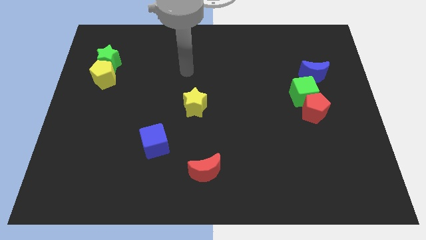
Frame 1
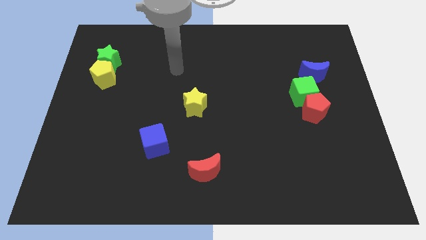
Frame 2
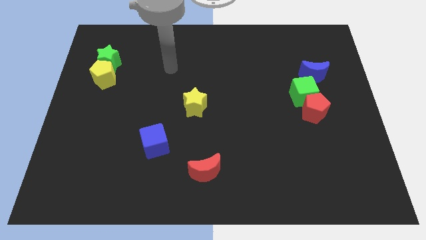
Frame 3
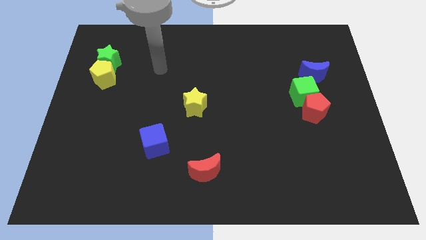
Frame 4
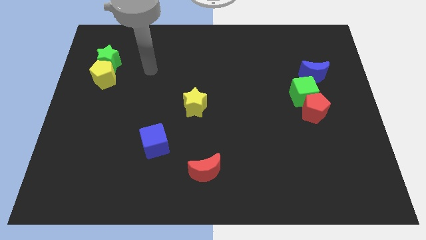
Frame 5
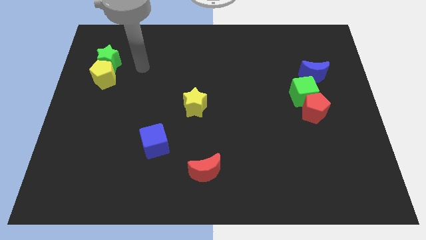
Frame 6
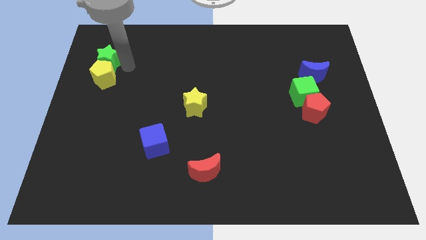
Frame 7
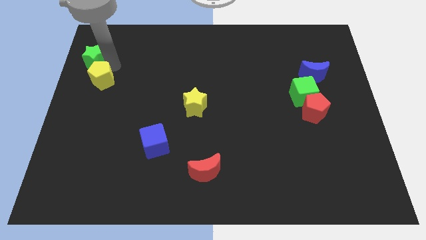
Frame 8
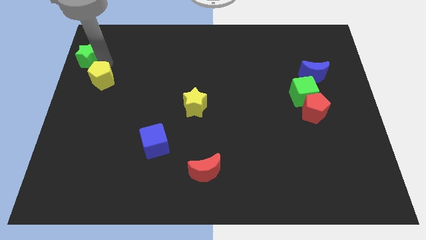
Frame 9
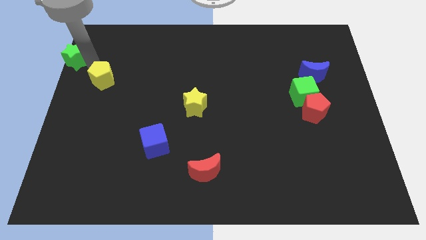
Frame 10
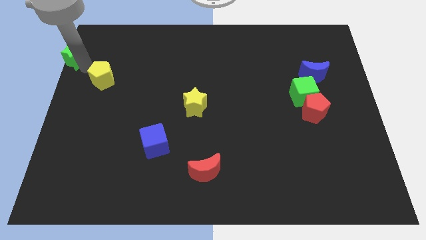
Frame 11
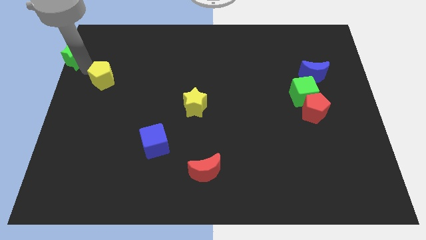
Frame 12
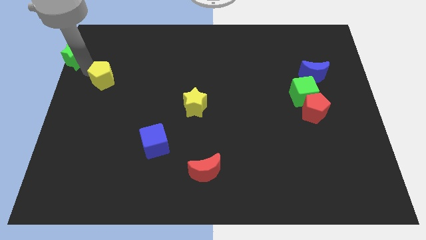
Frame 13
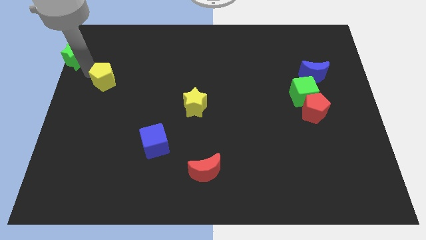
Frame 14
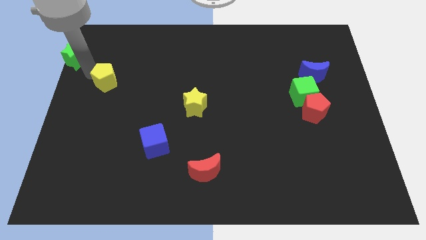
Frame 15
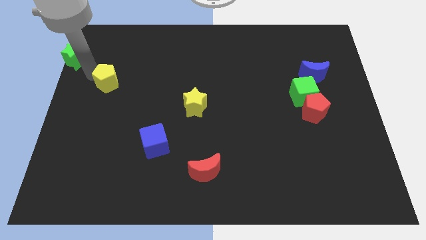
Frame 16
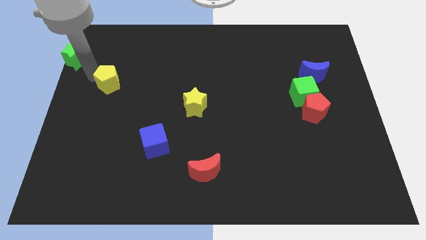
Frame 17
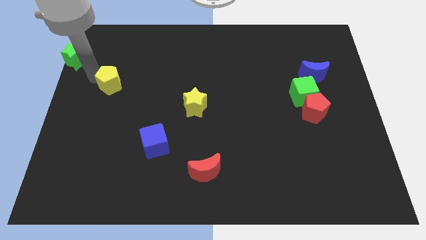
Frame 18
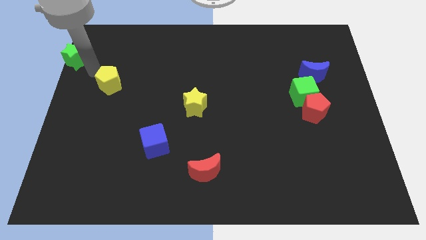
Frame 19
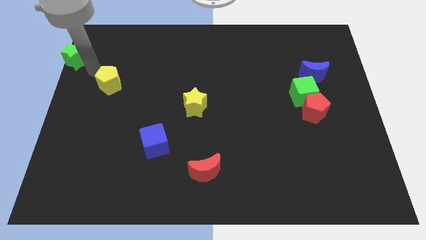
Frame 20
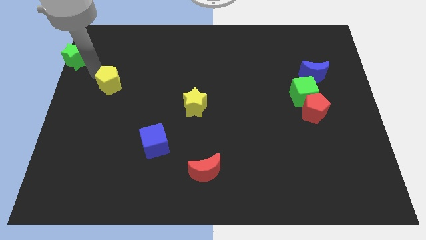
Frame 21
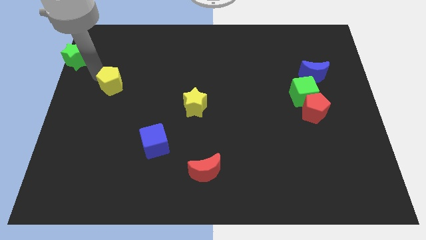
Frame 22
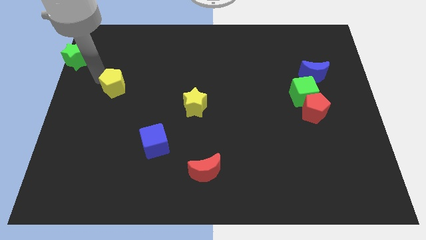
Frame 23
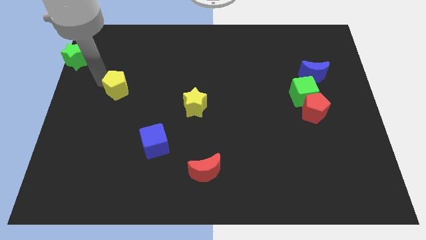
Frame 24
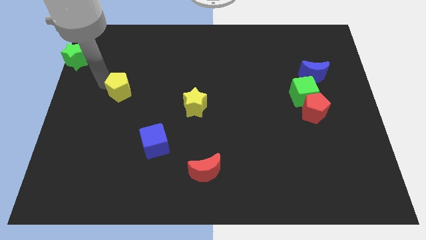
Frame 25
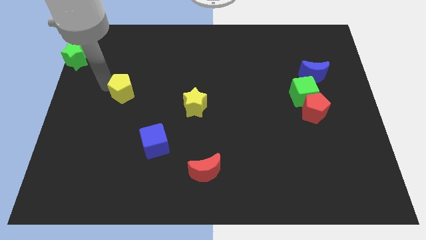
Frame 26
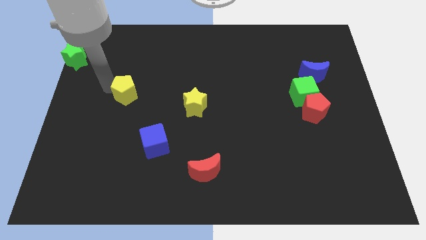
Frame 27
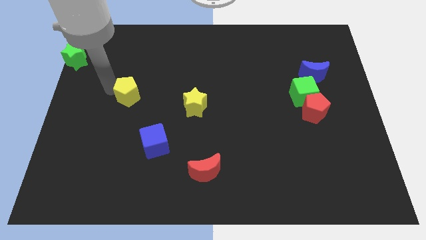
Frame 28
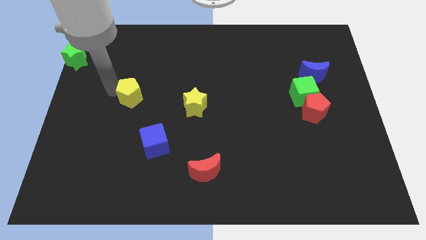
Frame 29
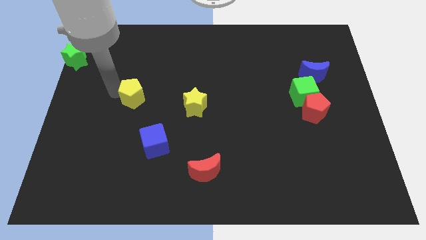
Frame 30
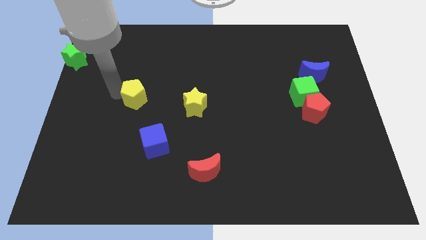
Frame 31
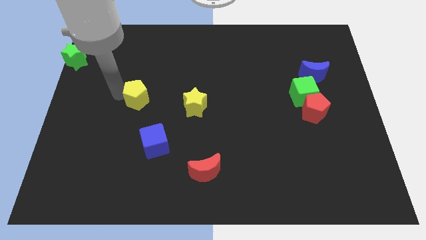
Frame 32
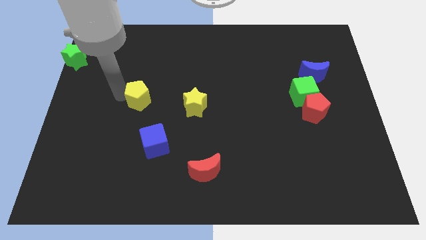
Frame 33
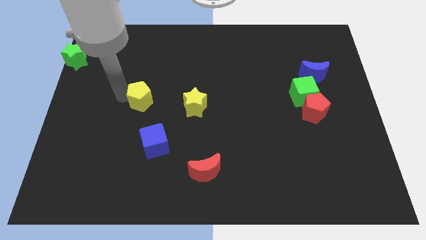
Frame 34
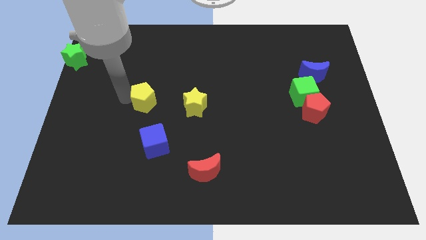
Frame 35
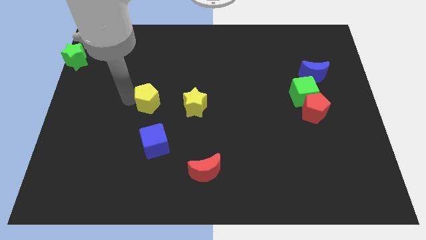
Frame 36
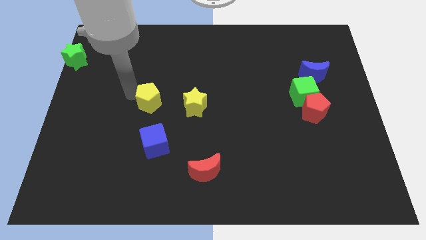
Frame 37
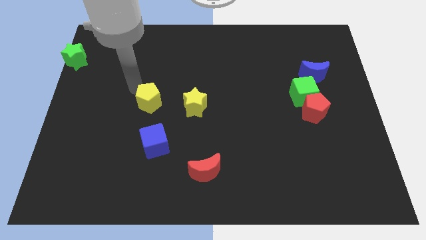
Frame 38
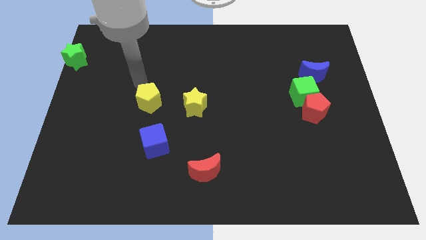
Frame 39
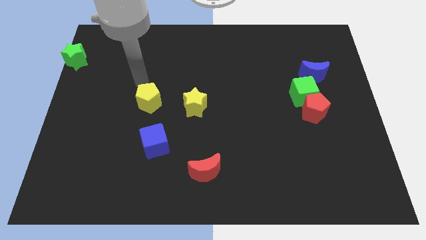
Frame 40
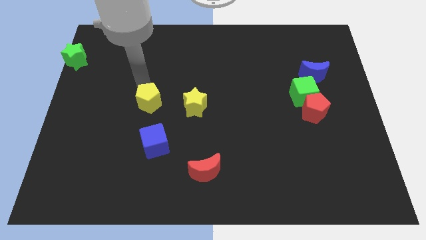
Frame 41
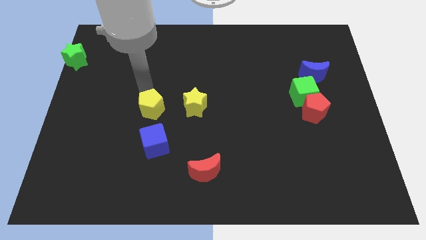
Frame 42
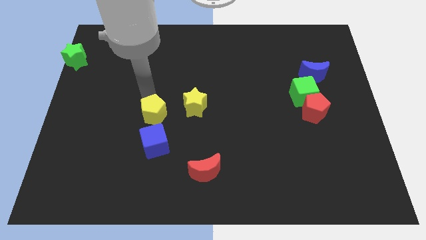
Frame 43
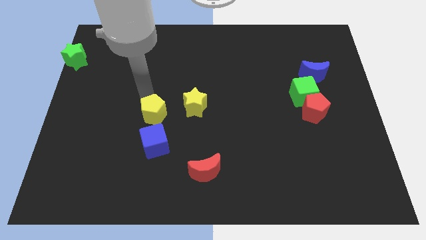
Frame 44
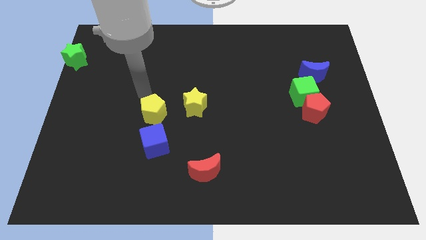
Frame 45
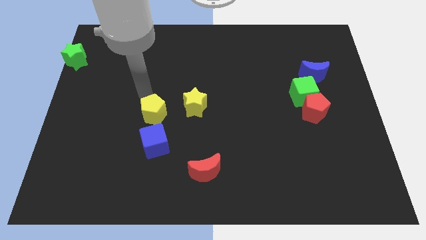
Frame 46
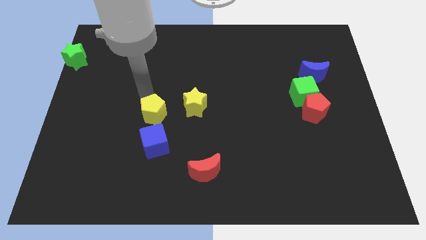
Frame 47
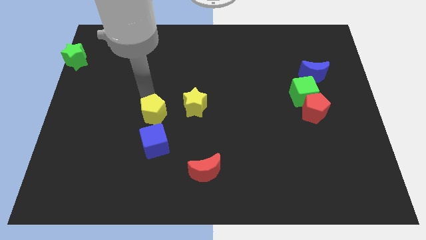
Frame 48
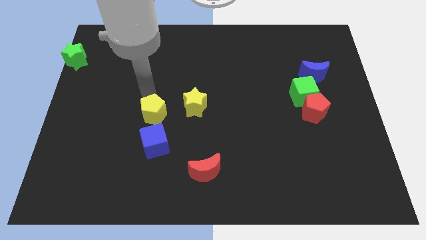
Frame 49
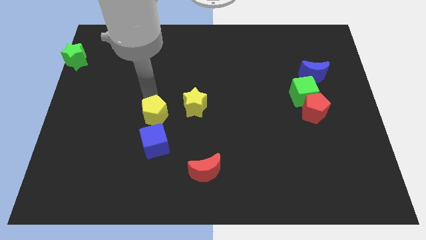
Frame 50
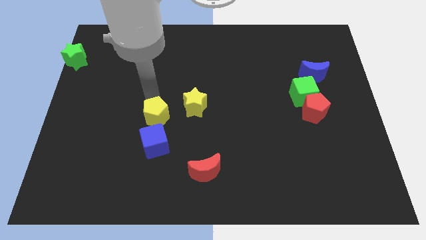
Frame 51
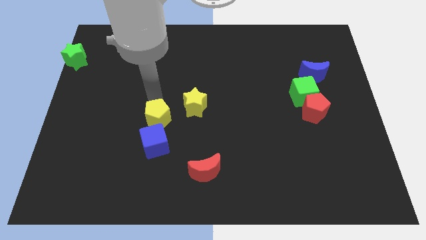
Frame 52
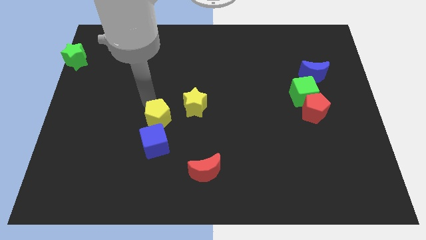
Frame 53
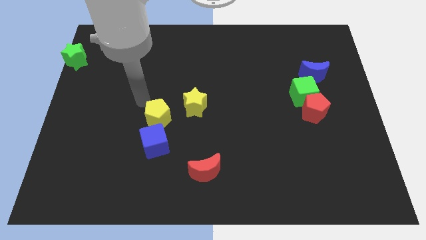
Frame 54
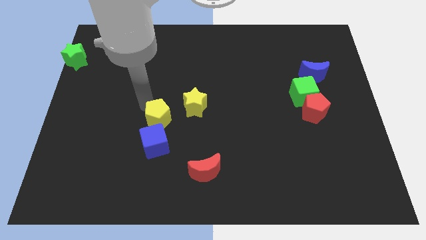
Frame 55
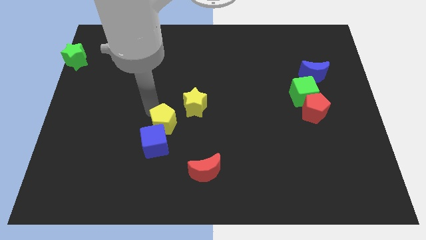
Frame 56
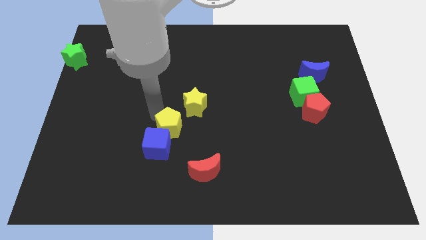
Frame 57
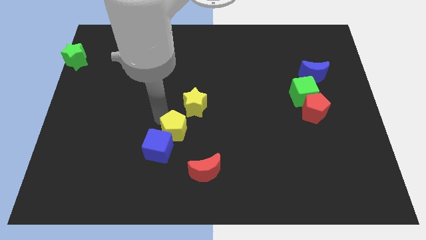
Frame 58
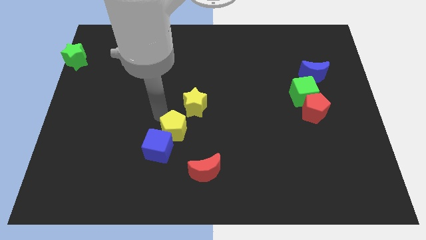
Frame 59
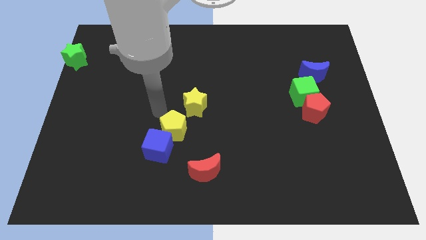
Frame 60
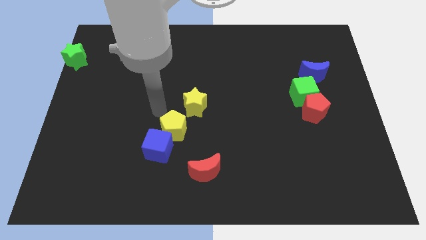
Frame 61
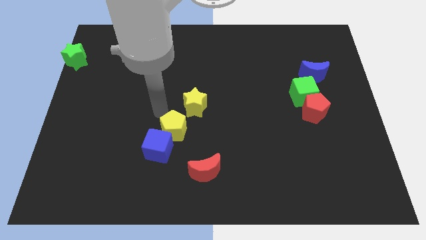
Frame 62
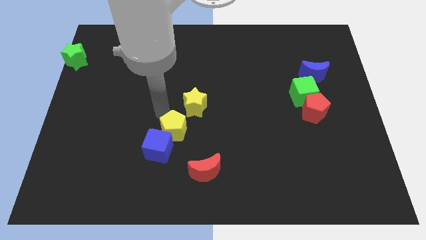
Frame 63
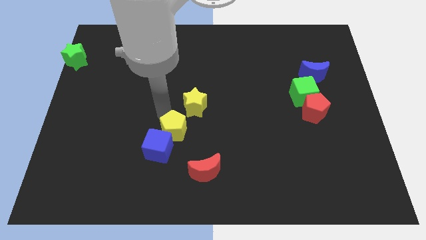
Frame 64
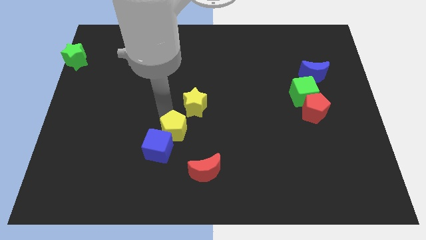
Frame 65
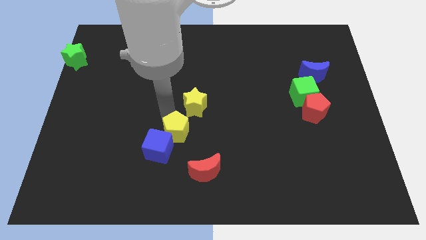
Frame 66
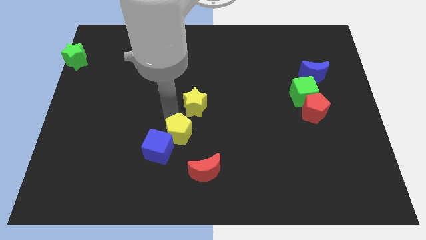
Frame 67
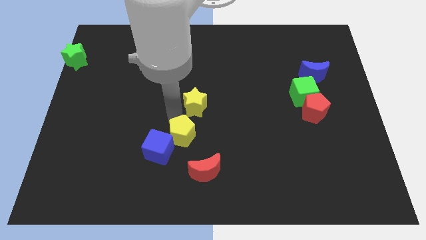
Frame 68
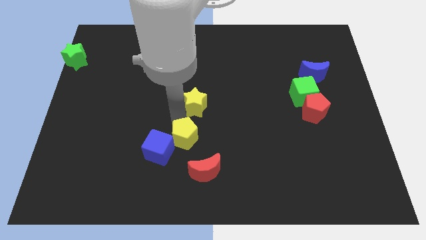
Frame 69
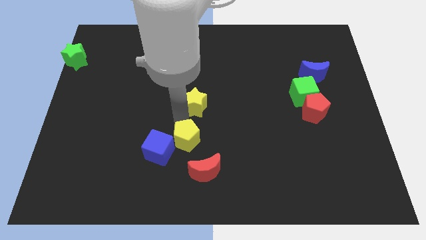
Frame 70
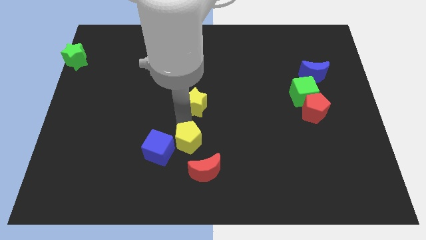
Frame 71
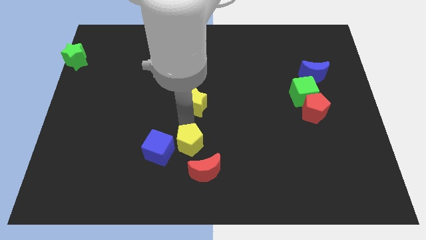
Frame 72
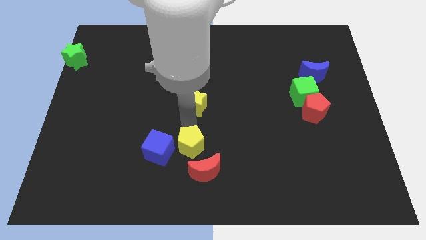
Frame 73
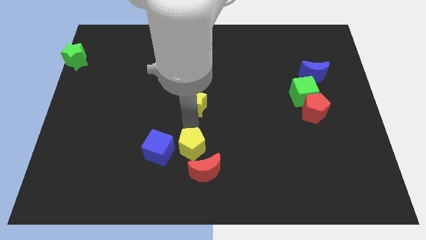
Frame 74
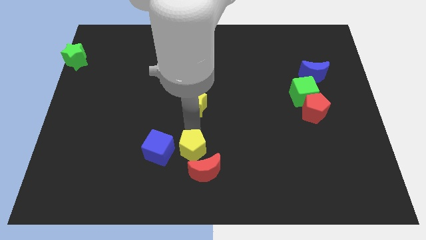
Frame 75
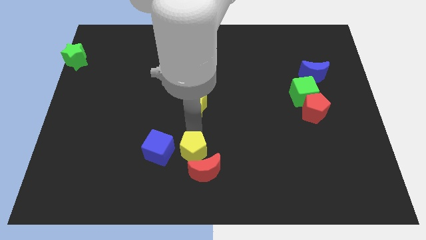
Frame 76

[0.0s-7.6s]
push the yellow pentagon to the red moon
